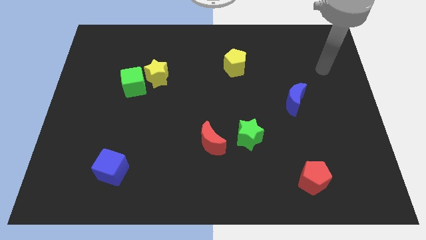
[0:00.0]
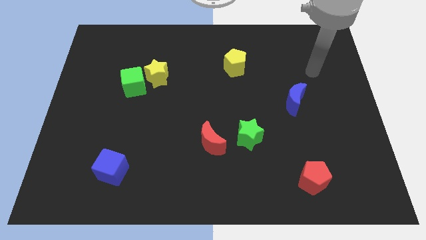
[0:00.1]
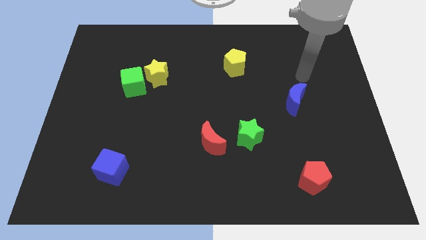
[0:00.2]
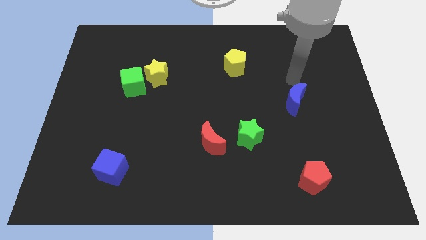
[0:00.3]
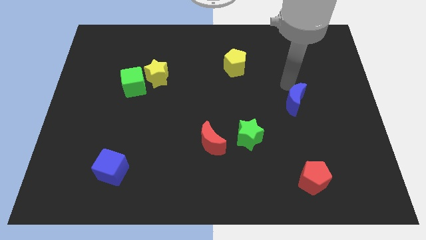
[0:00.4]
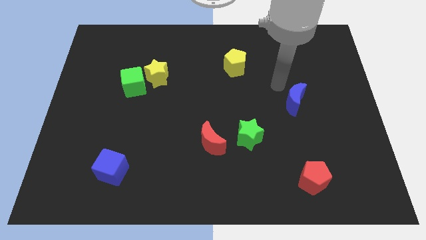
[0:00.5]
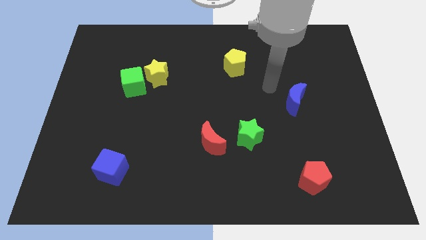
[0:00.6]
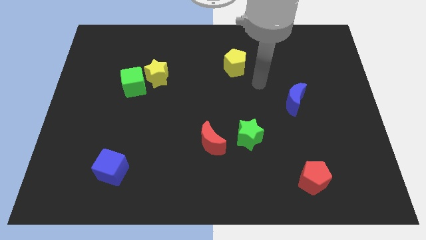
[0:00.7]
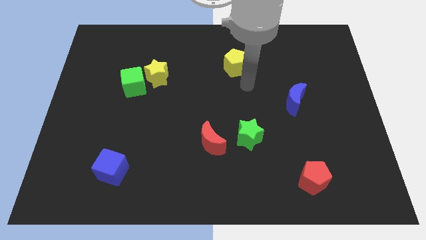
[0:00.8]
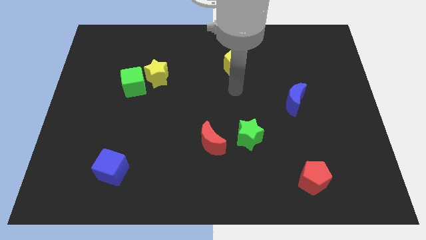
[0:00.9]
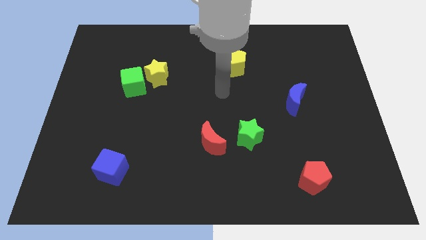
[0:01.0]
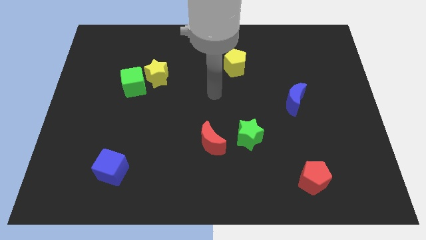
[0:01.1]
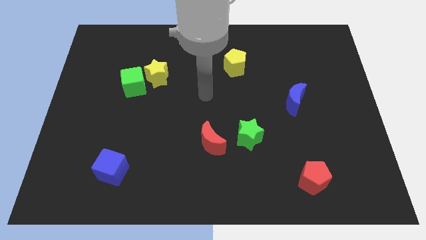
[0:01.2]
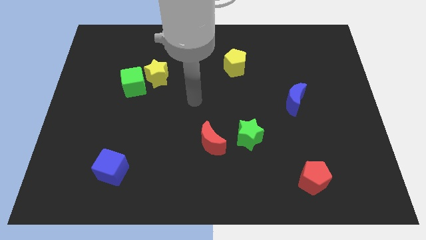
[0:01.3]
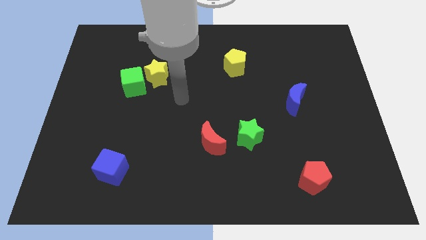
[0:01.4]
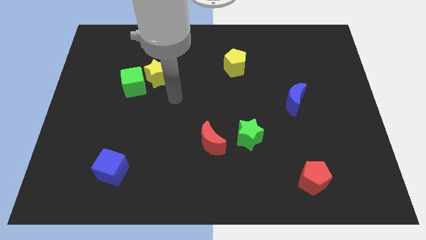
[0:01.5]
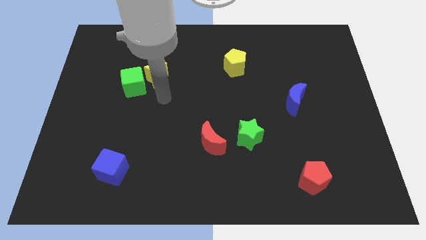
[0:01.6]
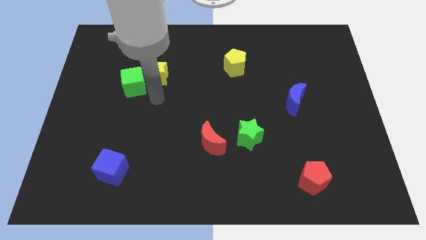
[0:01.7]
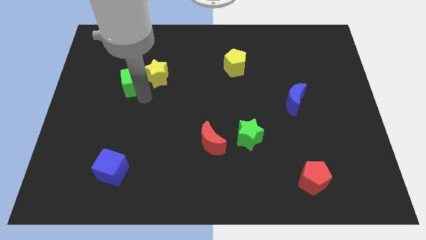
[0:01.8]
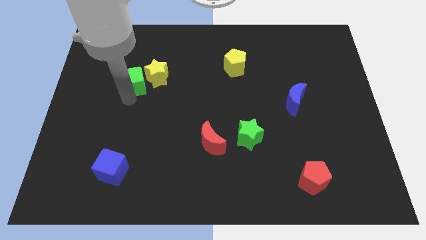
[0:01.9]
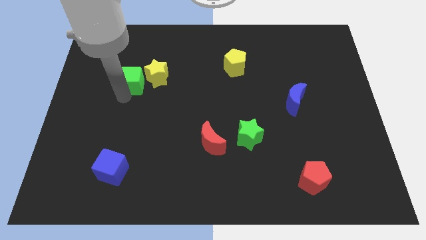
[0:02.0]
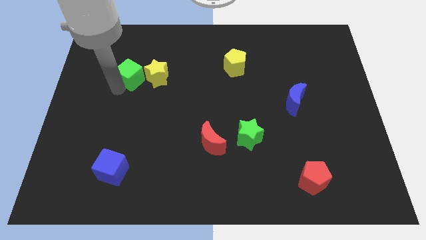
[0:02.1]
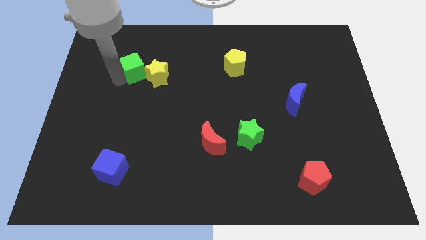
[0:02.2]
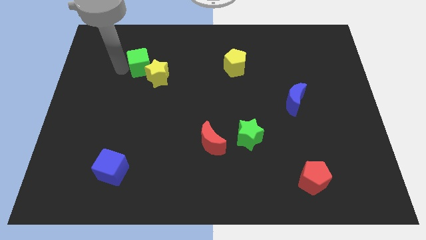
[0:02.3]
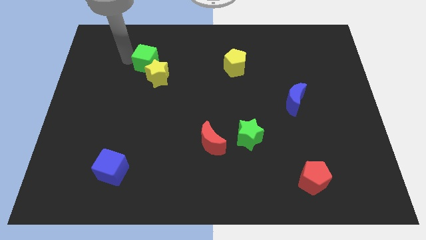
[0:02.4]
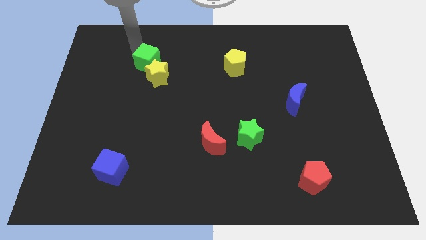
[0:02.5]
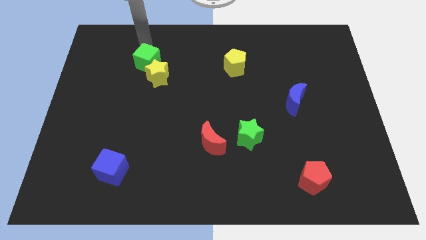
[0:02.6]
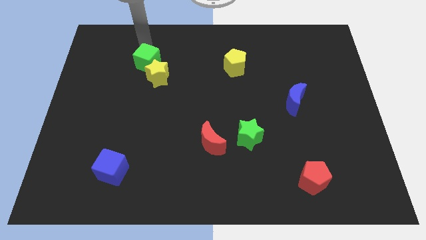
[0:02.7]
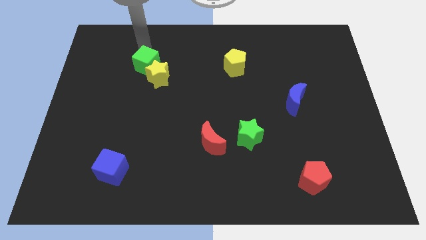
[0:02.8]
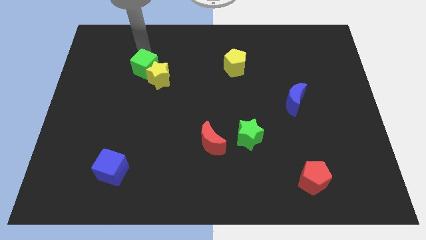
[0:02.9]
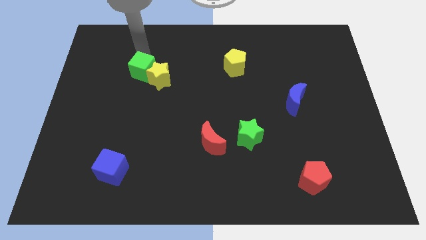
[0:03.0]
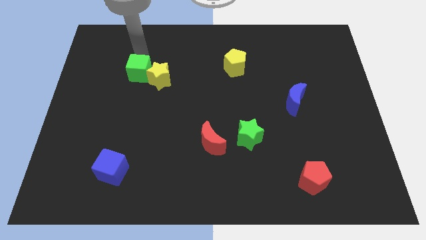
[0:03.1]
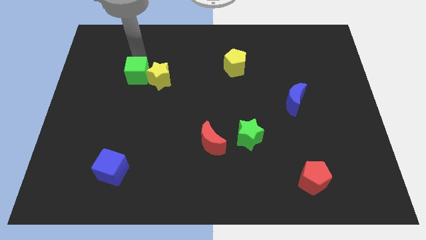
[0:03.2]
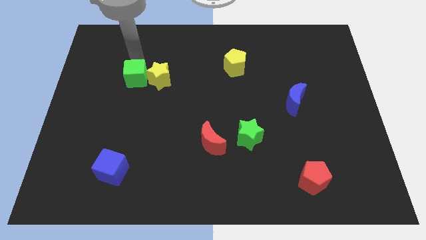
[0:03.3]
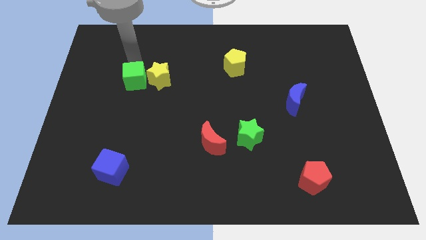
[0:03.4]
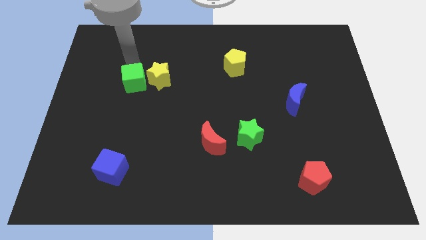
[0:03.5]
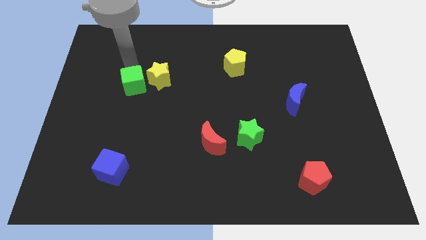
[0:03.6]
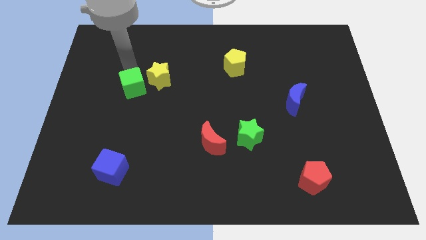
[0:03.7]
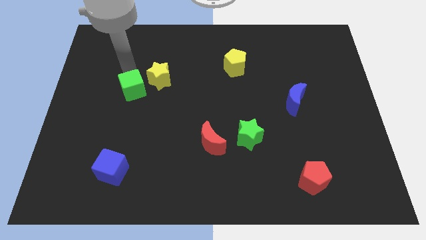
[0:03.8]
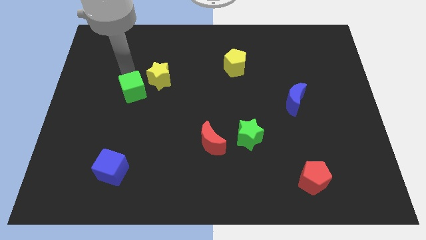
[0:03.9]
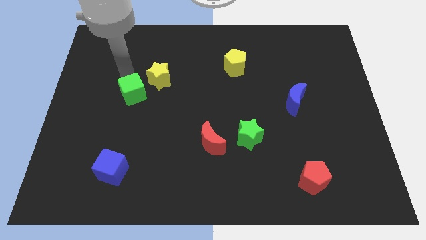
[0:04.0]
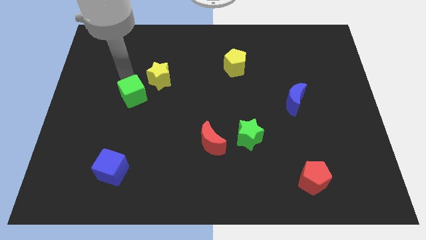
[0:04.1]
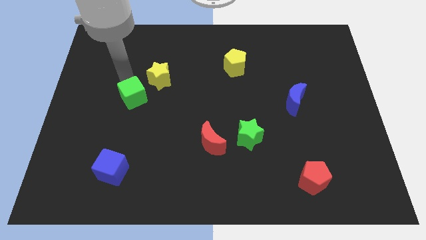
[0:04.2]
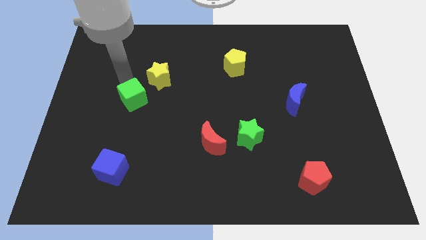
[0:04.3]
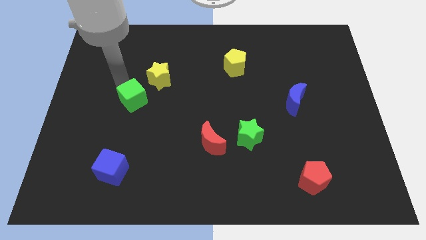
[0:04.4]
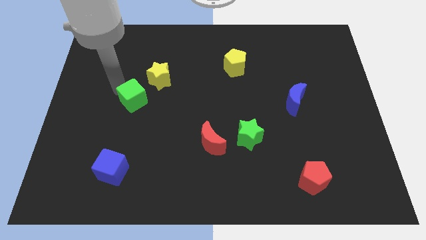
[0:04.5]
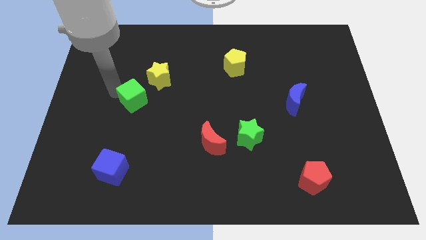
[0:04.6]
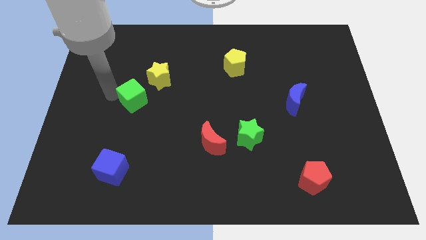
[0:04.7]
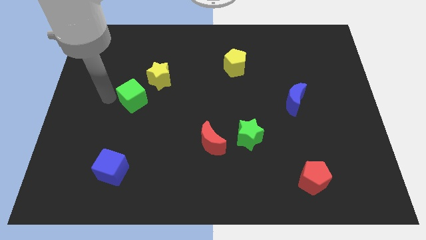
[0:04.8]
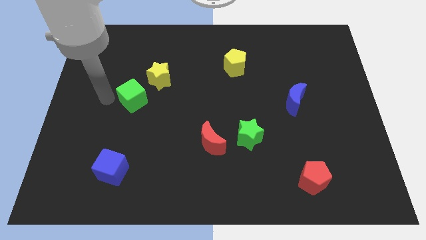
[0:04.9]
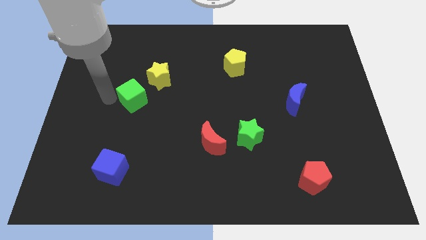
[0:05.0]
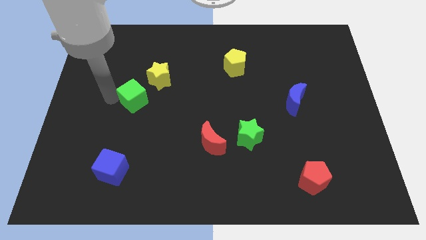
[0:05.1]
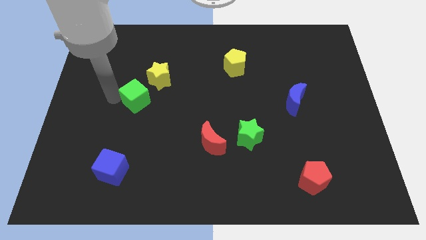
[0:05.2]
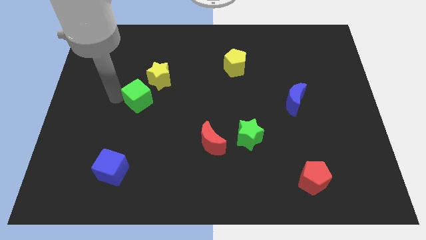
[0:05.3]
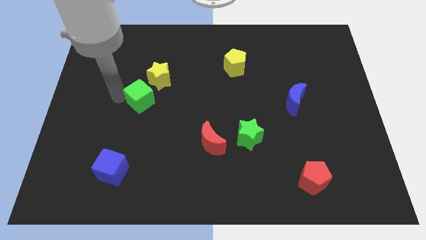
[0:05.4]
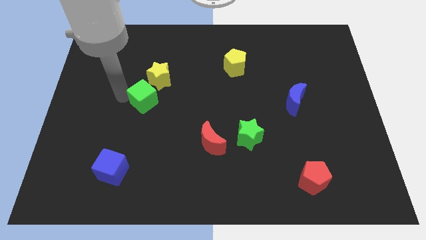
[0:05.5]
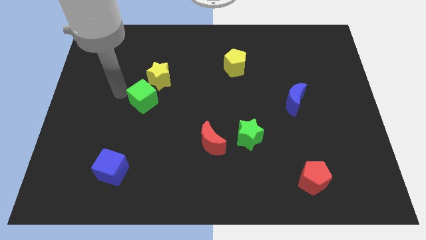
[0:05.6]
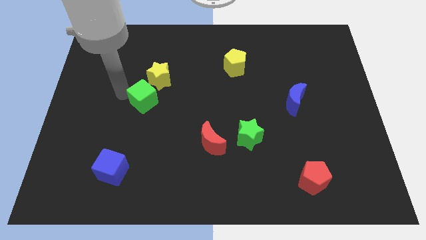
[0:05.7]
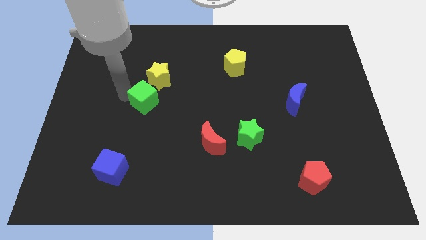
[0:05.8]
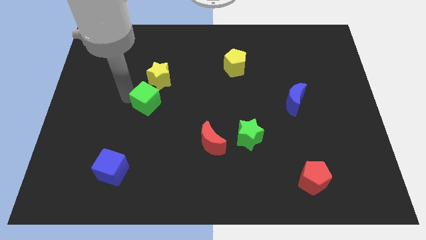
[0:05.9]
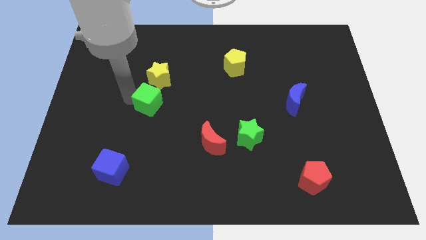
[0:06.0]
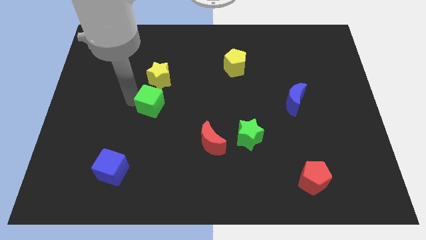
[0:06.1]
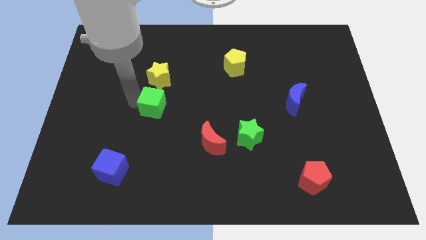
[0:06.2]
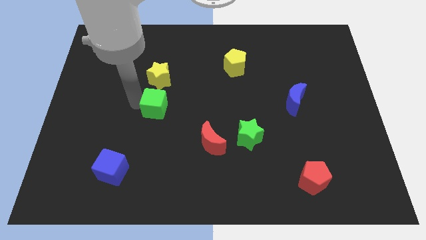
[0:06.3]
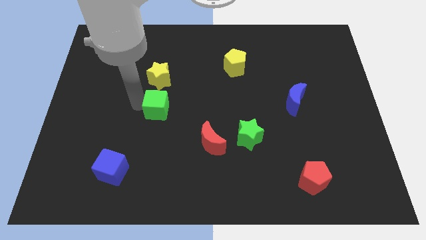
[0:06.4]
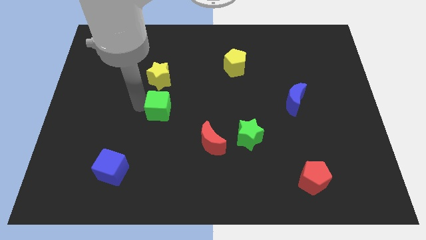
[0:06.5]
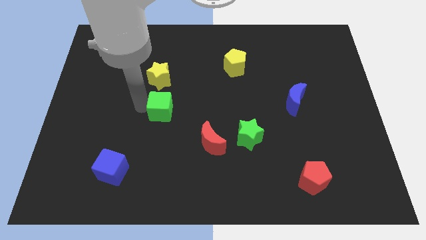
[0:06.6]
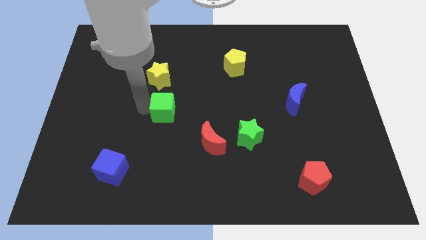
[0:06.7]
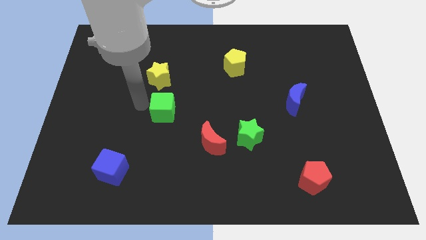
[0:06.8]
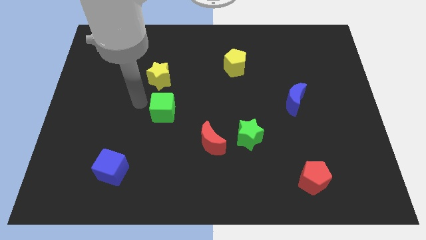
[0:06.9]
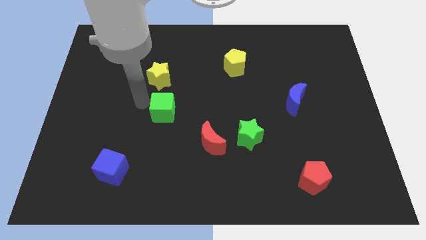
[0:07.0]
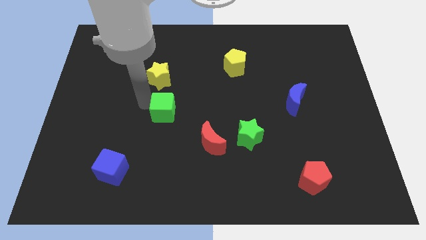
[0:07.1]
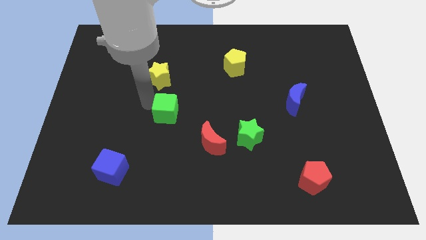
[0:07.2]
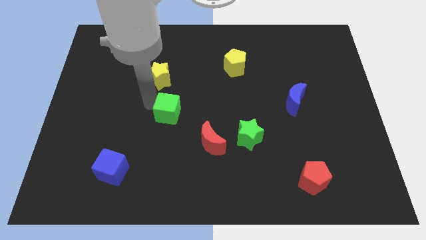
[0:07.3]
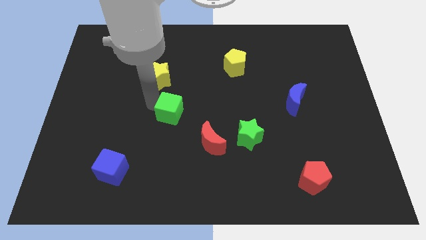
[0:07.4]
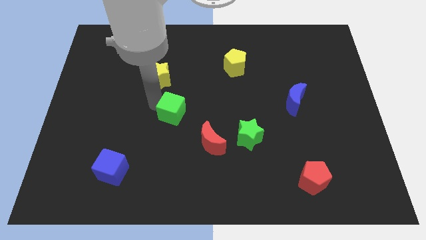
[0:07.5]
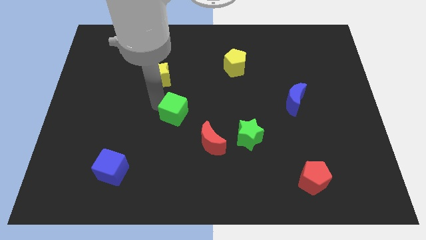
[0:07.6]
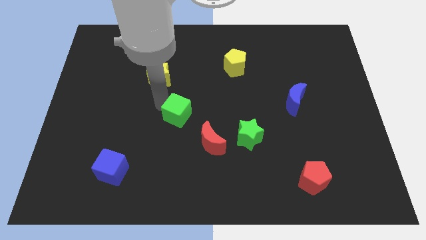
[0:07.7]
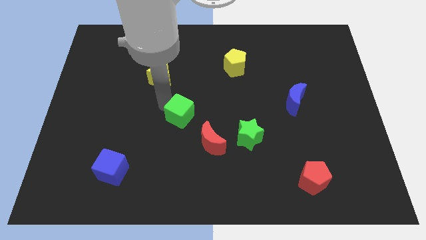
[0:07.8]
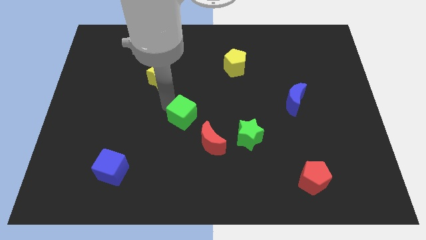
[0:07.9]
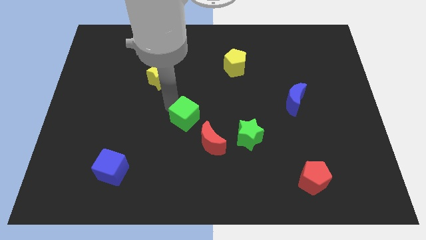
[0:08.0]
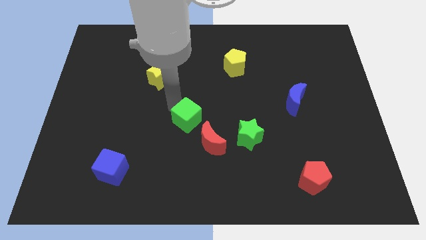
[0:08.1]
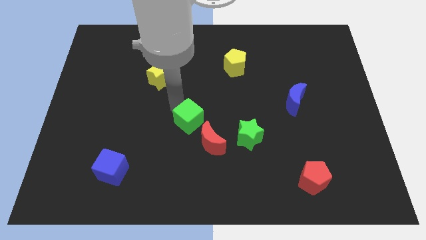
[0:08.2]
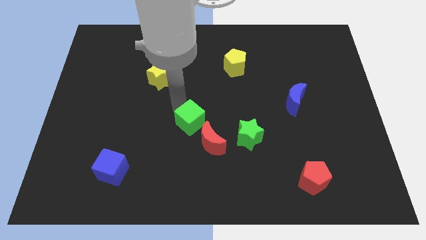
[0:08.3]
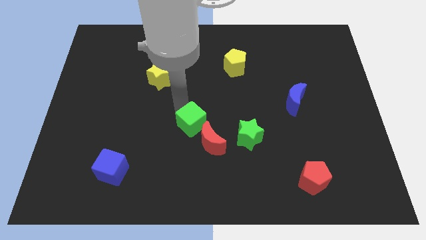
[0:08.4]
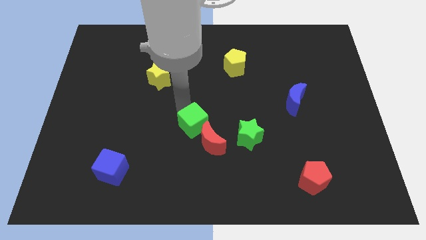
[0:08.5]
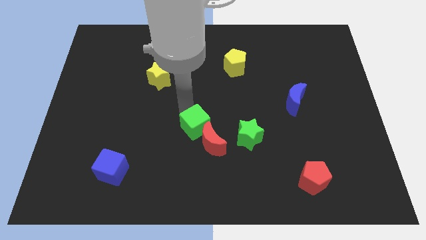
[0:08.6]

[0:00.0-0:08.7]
put the green cube to the red moon
